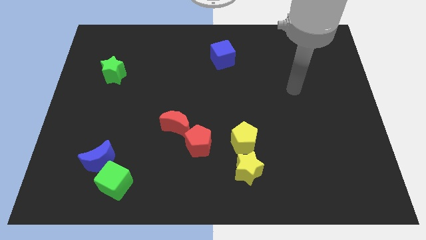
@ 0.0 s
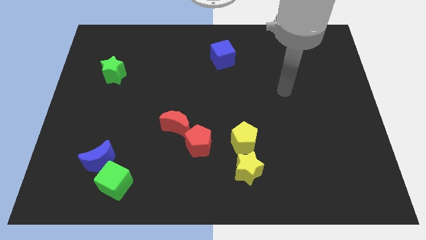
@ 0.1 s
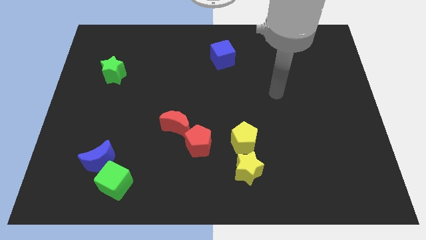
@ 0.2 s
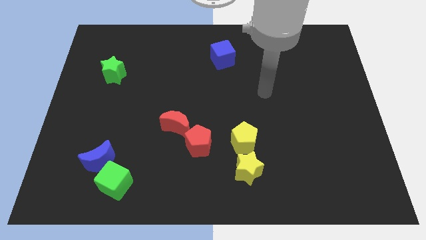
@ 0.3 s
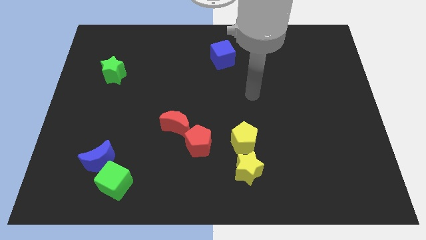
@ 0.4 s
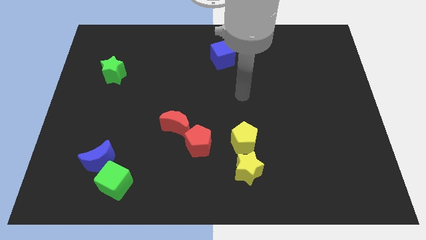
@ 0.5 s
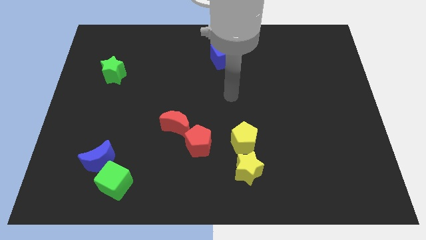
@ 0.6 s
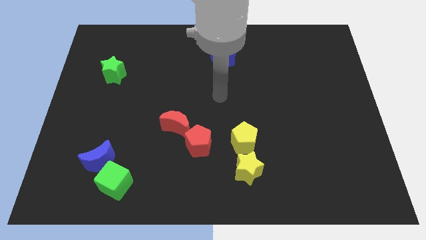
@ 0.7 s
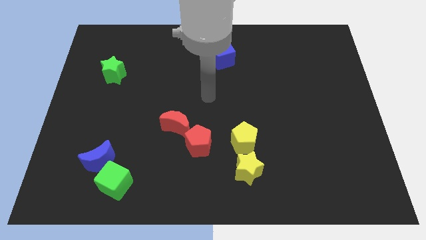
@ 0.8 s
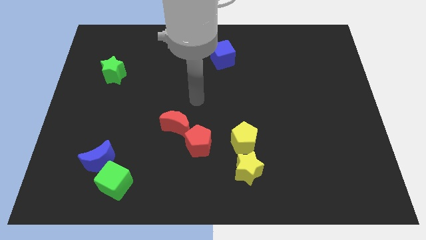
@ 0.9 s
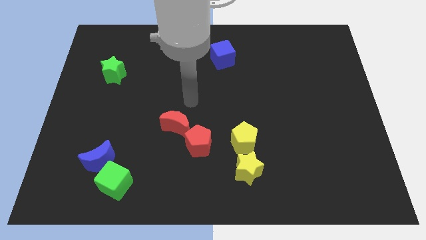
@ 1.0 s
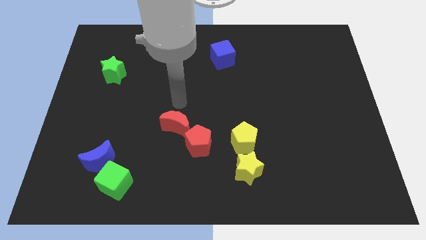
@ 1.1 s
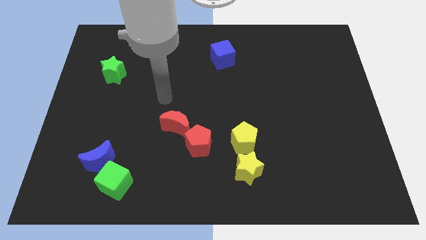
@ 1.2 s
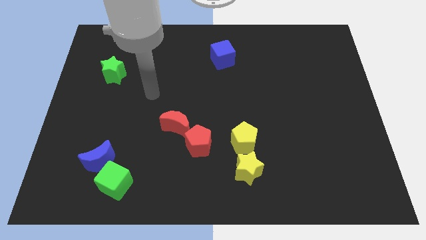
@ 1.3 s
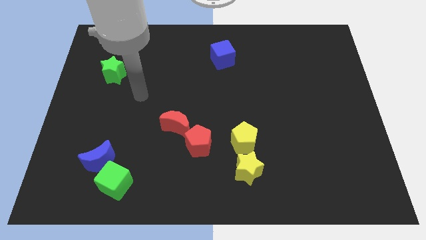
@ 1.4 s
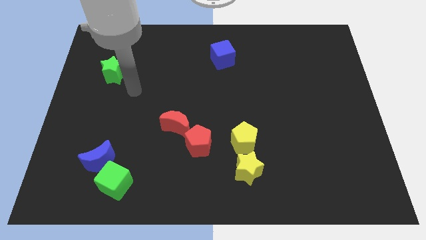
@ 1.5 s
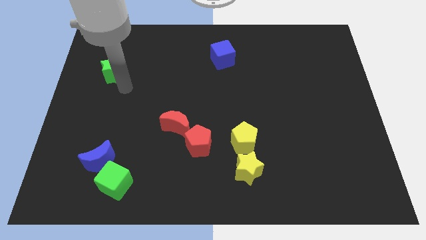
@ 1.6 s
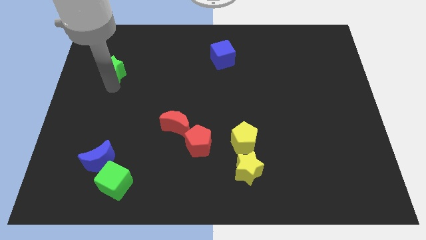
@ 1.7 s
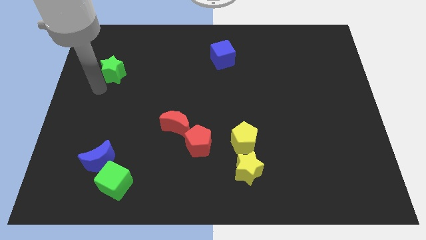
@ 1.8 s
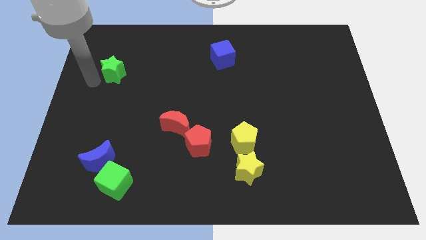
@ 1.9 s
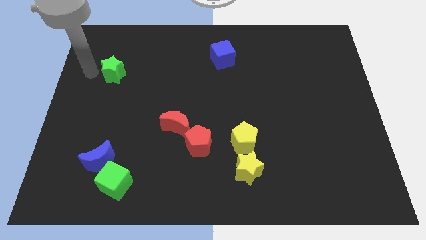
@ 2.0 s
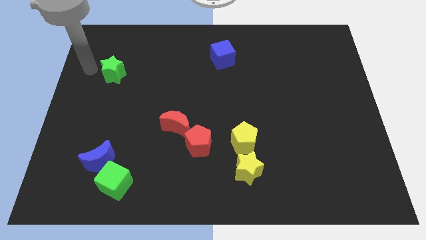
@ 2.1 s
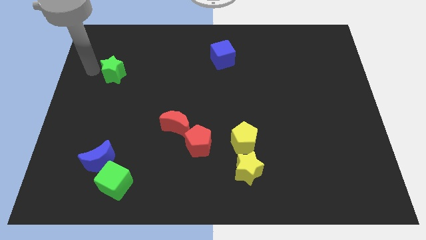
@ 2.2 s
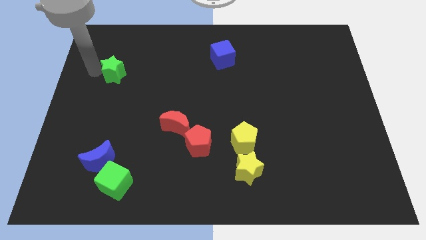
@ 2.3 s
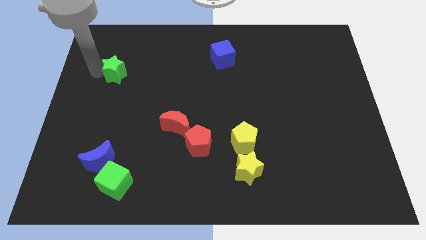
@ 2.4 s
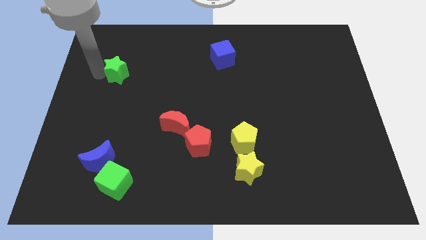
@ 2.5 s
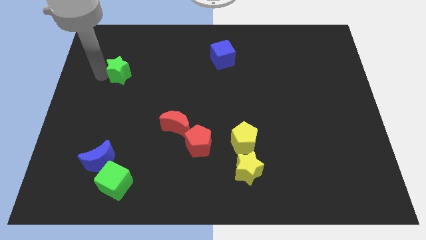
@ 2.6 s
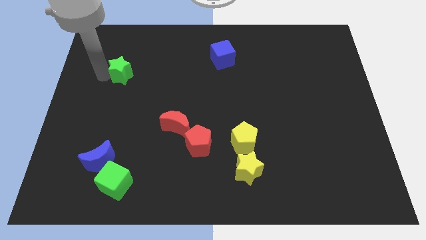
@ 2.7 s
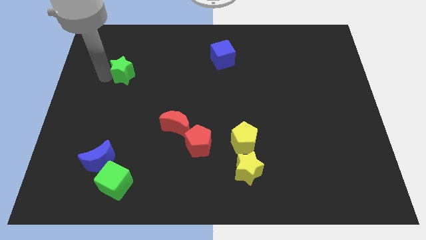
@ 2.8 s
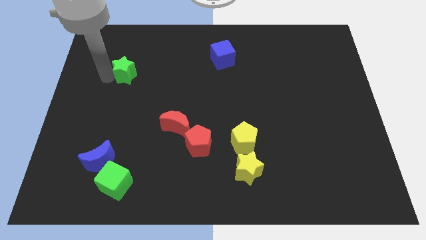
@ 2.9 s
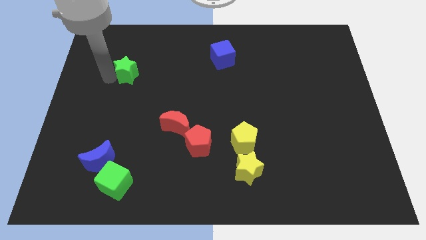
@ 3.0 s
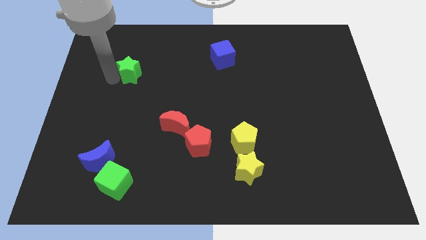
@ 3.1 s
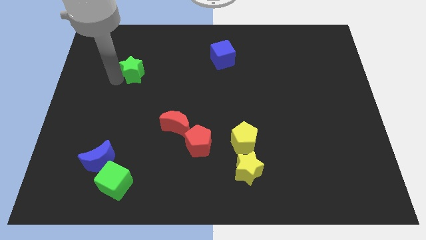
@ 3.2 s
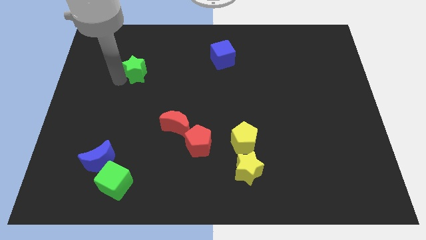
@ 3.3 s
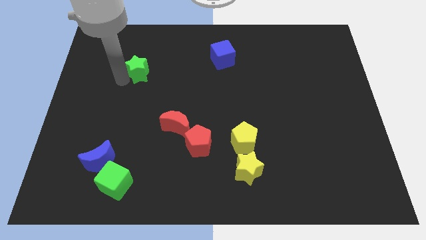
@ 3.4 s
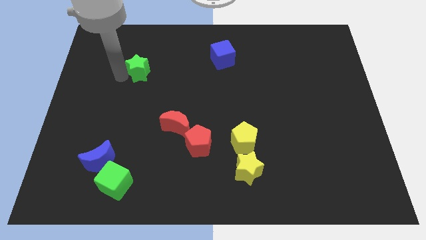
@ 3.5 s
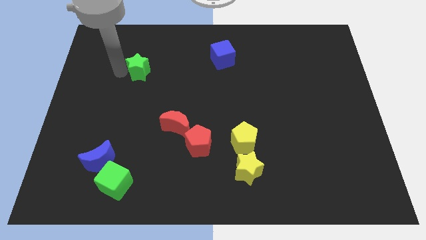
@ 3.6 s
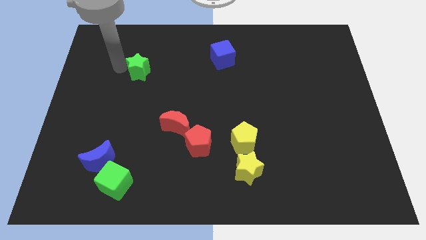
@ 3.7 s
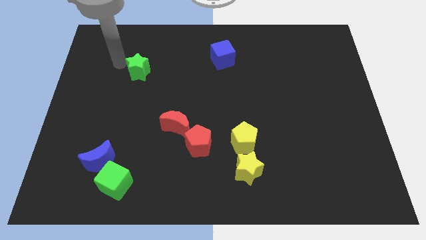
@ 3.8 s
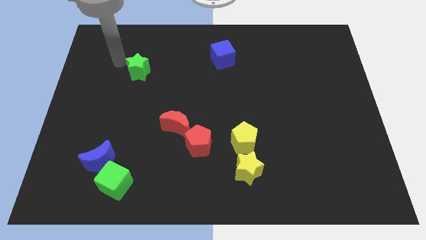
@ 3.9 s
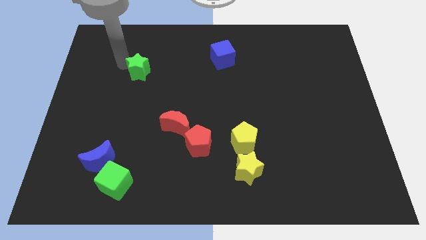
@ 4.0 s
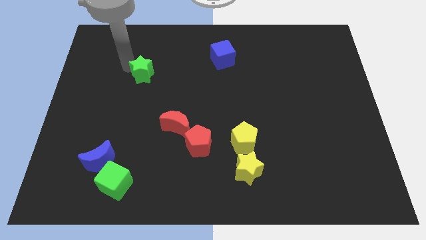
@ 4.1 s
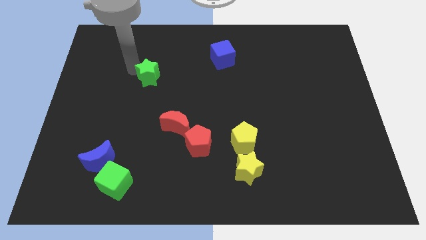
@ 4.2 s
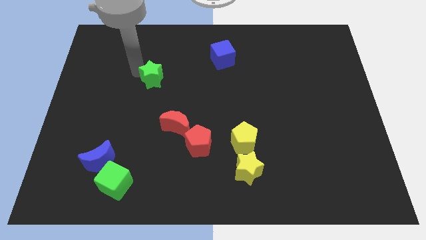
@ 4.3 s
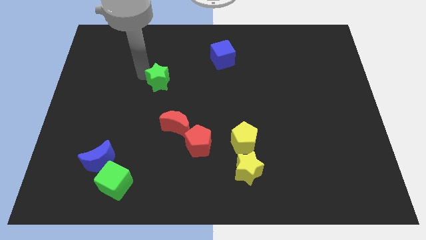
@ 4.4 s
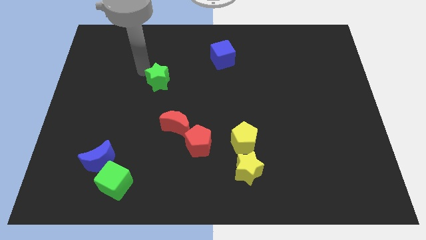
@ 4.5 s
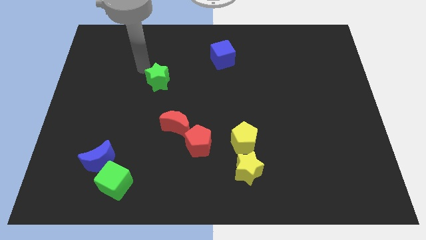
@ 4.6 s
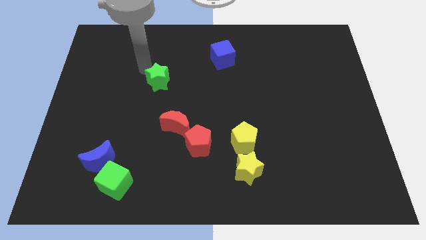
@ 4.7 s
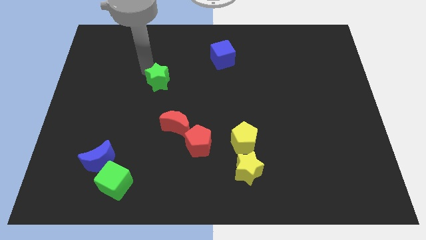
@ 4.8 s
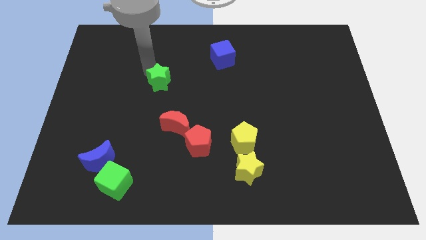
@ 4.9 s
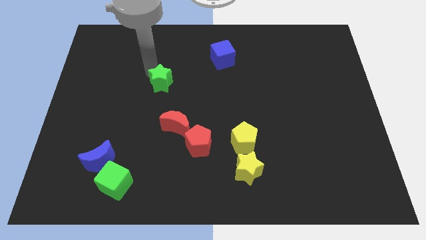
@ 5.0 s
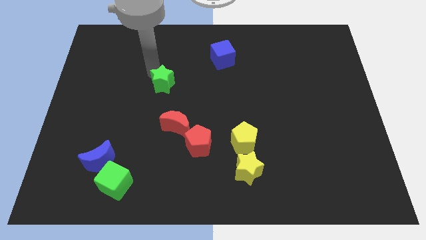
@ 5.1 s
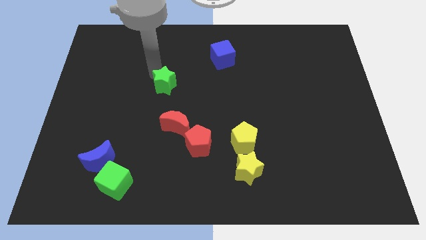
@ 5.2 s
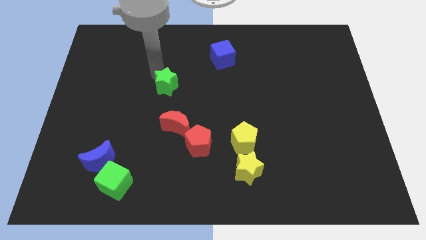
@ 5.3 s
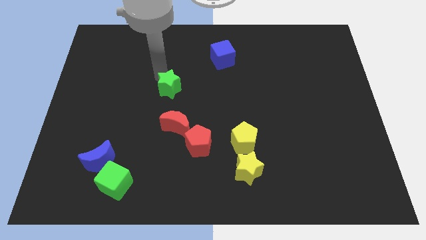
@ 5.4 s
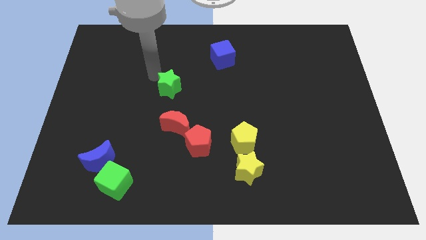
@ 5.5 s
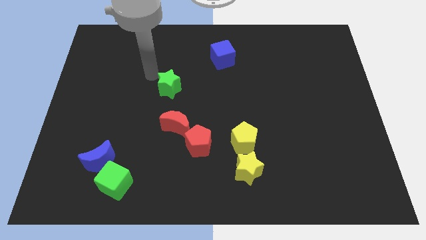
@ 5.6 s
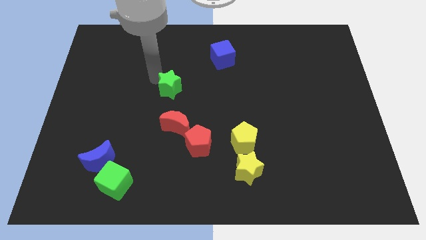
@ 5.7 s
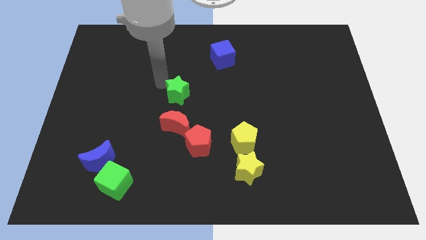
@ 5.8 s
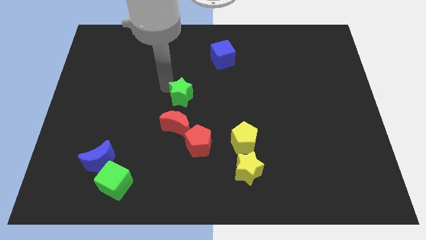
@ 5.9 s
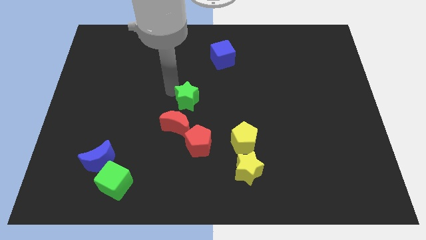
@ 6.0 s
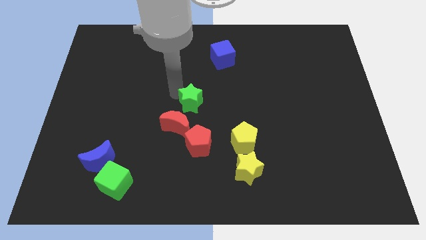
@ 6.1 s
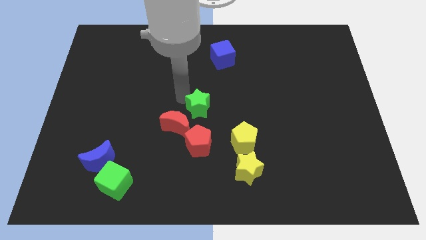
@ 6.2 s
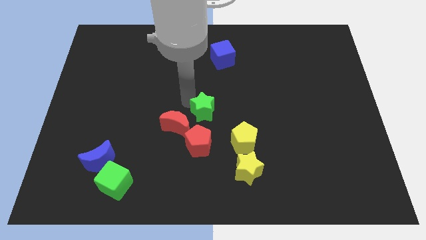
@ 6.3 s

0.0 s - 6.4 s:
push the green star to the top left of the yellow pentagon

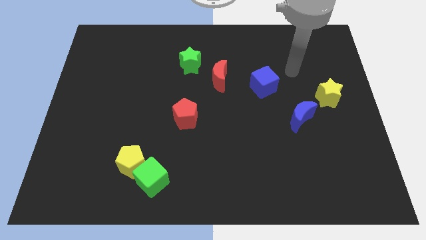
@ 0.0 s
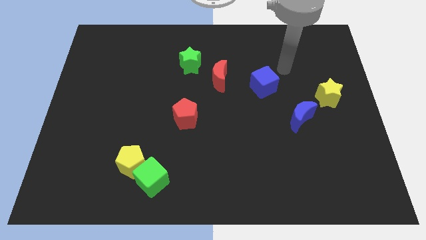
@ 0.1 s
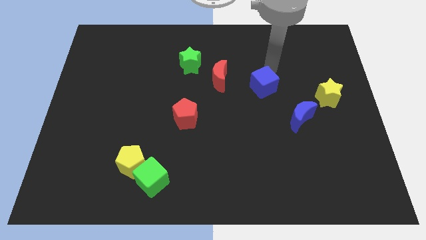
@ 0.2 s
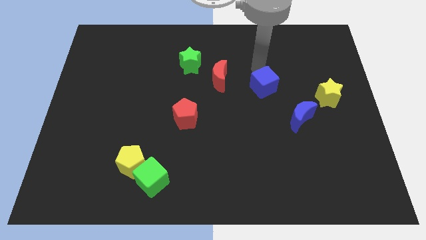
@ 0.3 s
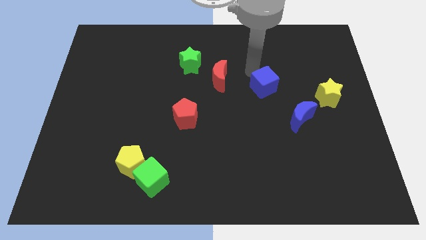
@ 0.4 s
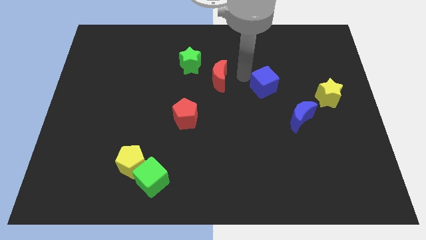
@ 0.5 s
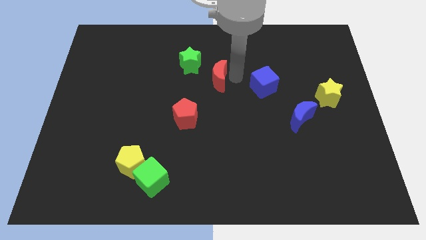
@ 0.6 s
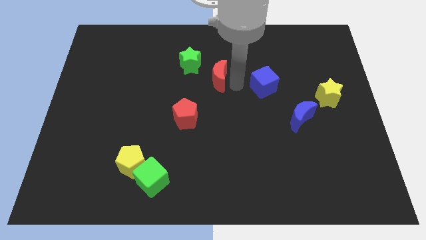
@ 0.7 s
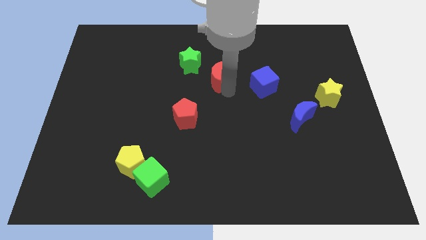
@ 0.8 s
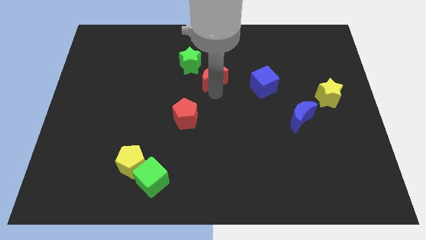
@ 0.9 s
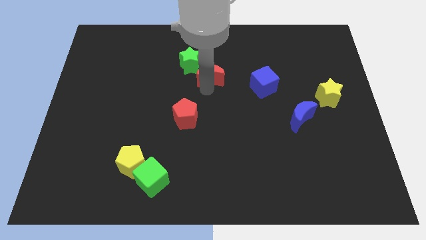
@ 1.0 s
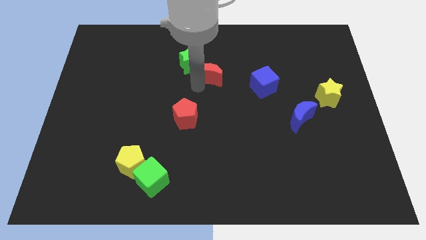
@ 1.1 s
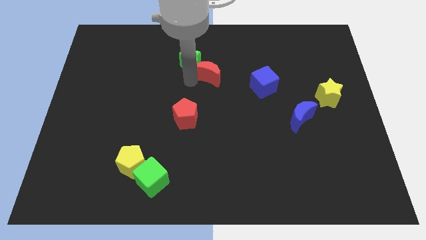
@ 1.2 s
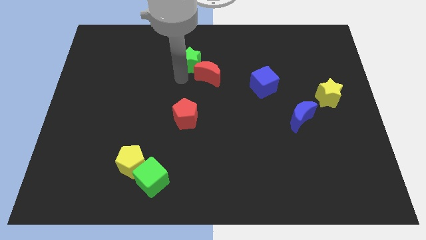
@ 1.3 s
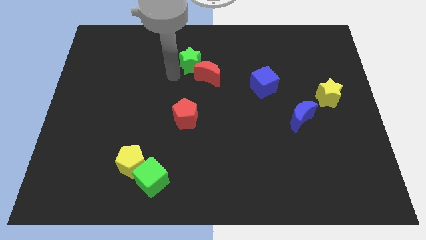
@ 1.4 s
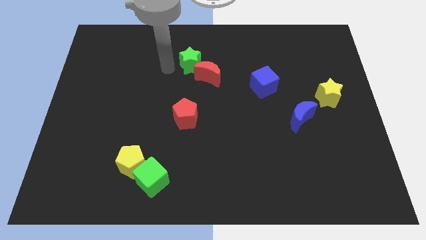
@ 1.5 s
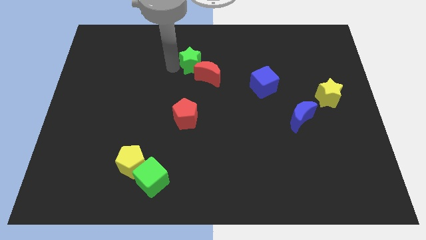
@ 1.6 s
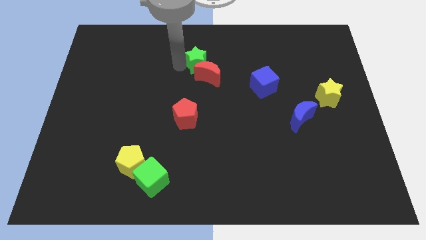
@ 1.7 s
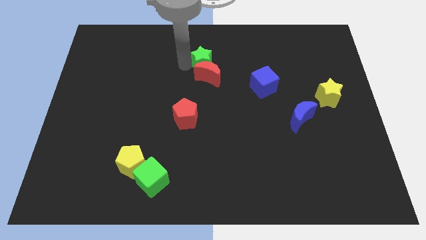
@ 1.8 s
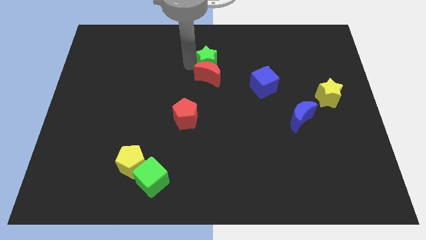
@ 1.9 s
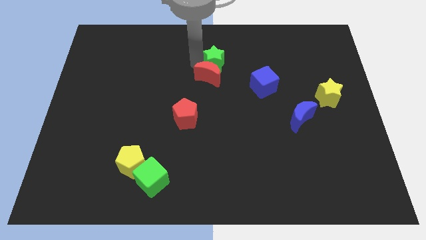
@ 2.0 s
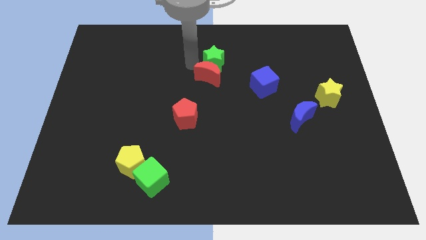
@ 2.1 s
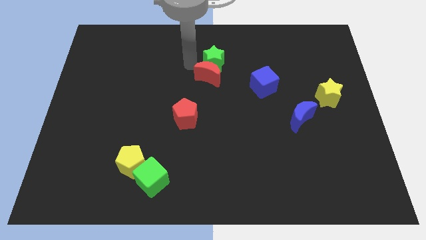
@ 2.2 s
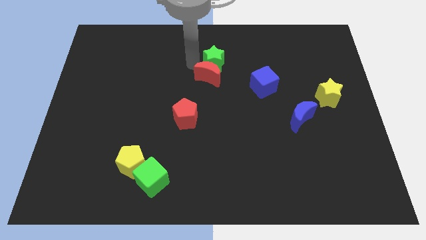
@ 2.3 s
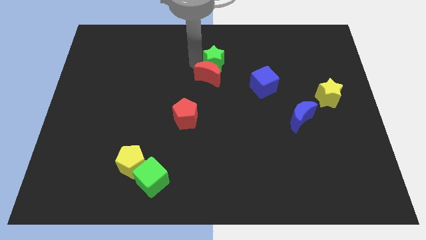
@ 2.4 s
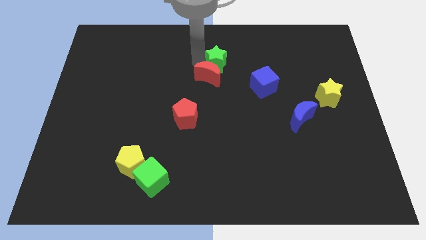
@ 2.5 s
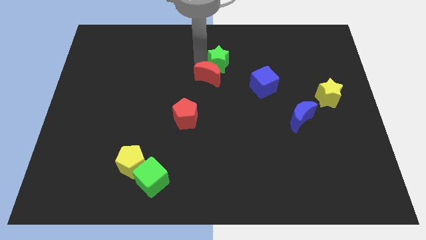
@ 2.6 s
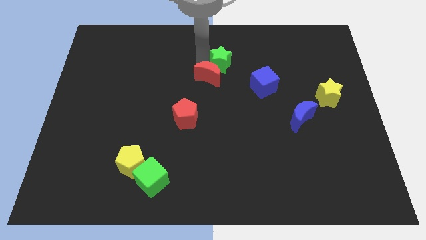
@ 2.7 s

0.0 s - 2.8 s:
move the green star to the right of the red moon
